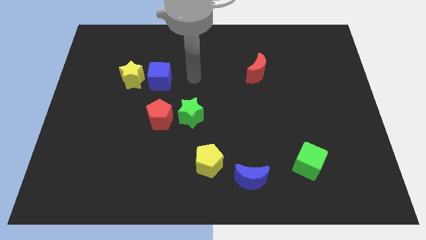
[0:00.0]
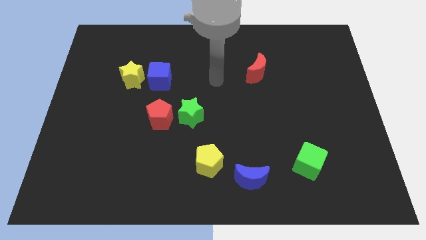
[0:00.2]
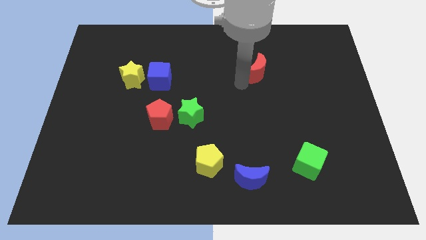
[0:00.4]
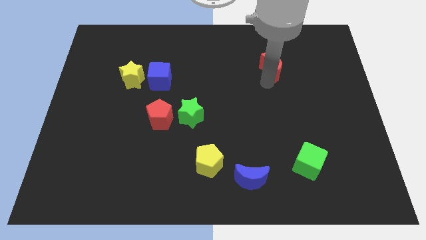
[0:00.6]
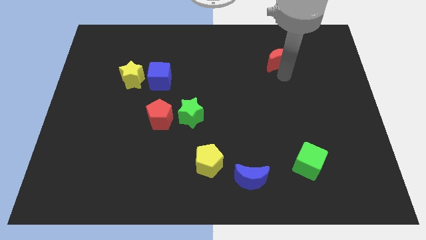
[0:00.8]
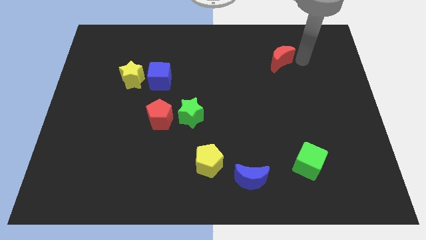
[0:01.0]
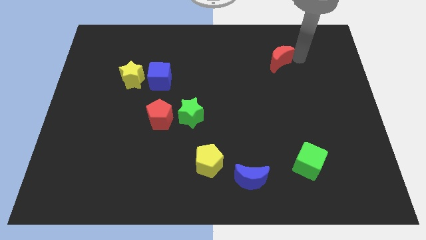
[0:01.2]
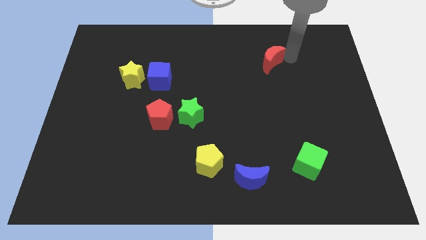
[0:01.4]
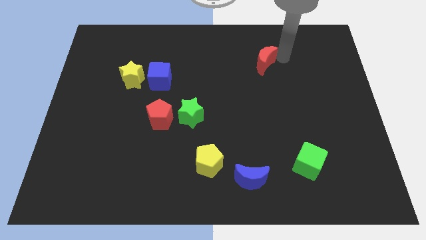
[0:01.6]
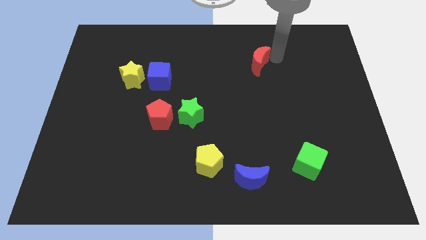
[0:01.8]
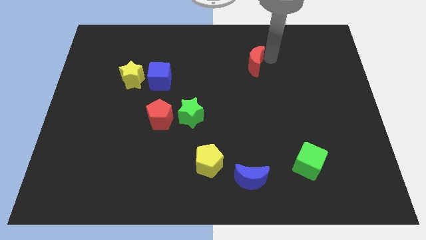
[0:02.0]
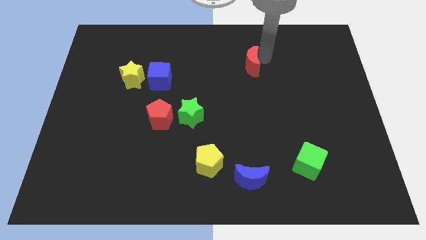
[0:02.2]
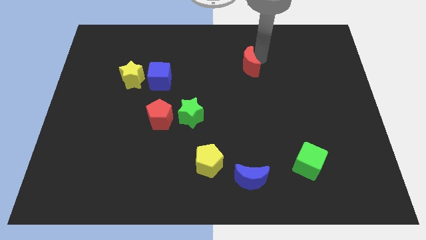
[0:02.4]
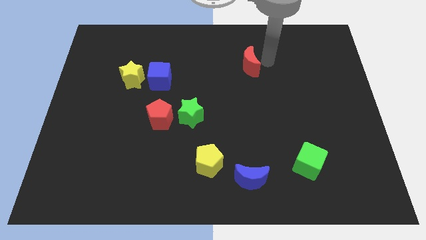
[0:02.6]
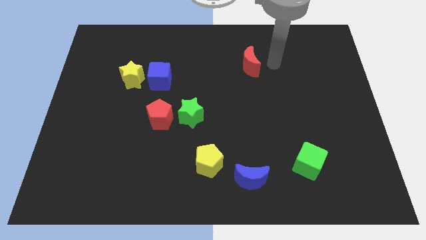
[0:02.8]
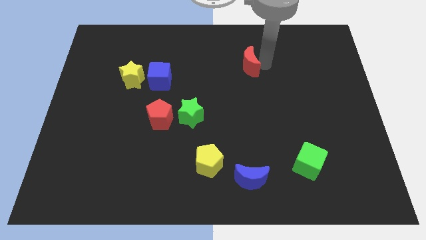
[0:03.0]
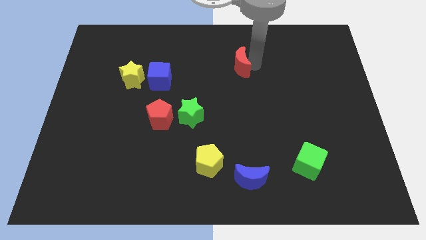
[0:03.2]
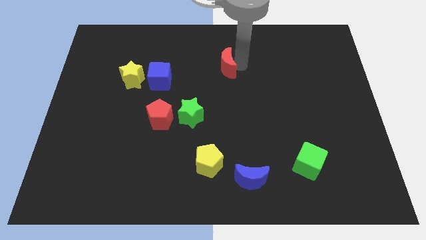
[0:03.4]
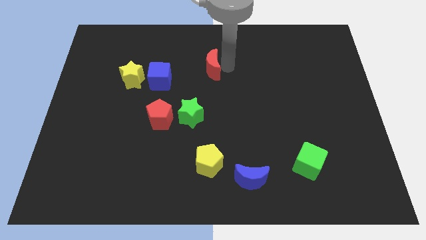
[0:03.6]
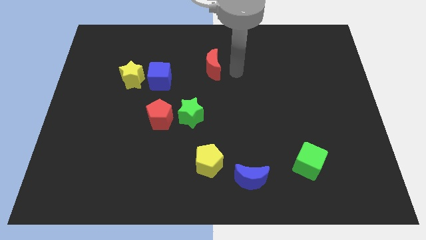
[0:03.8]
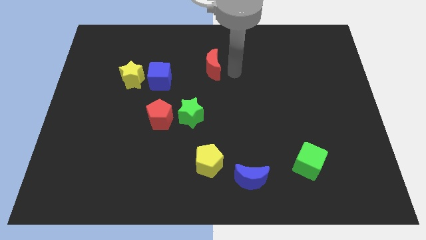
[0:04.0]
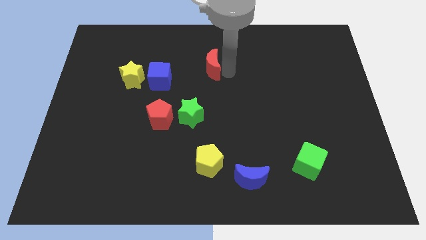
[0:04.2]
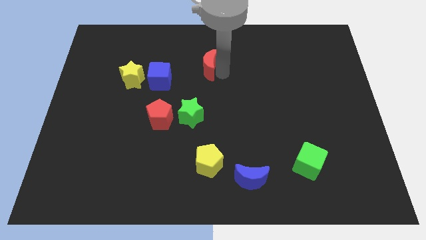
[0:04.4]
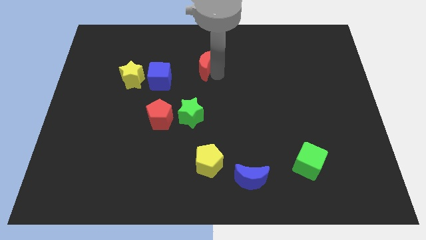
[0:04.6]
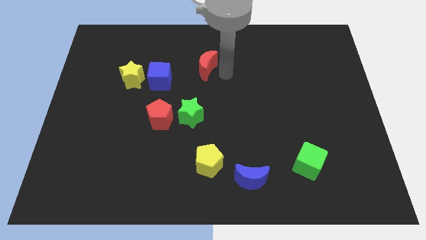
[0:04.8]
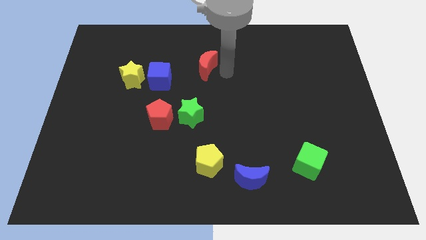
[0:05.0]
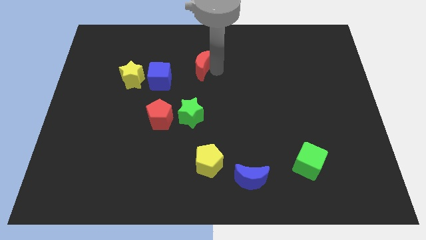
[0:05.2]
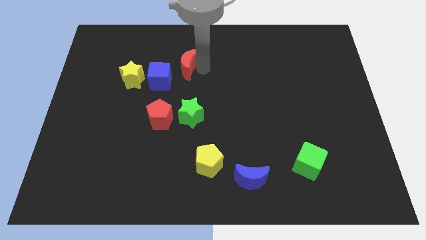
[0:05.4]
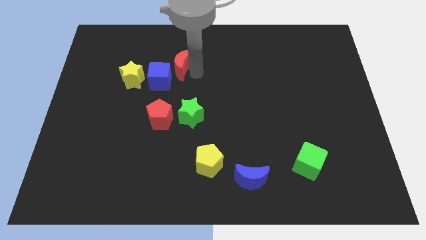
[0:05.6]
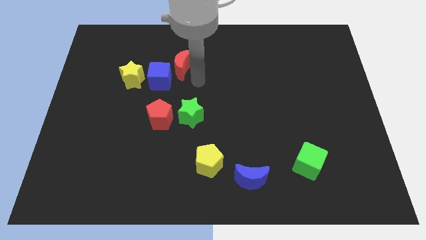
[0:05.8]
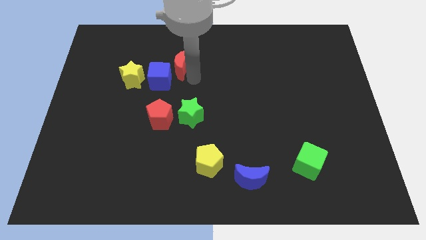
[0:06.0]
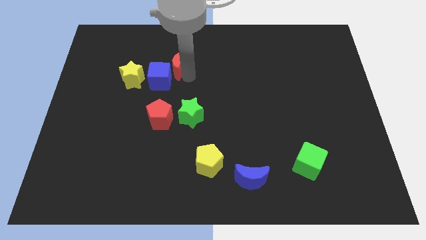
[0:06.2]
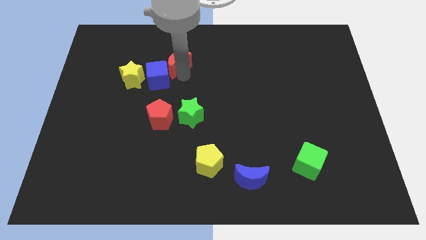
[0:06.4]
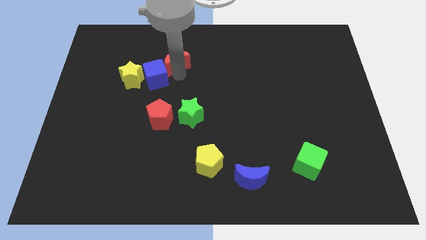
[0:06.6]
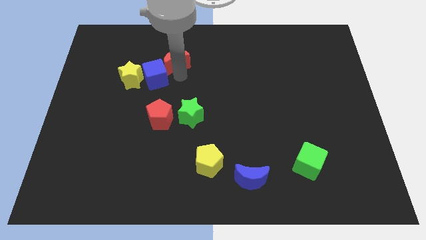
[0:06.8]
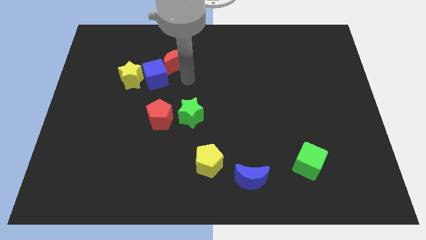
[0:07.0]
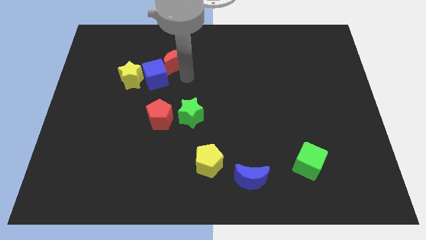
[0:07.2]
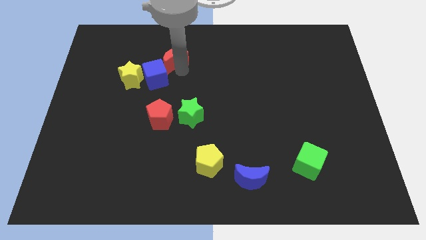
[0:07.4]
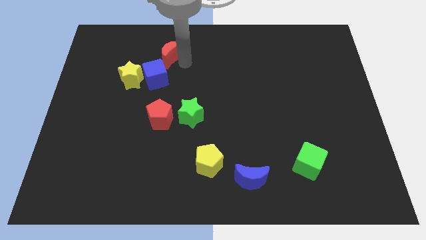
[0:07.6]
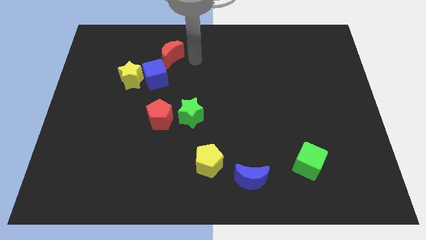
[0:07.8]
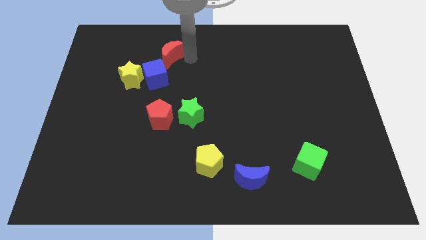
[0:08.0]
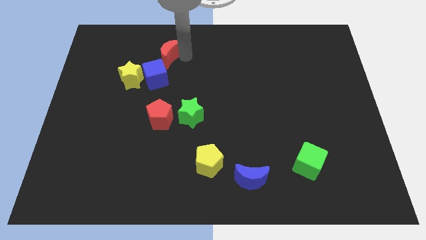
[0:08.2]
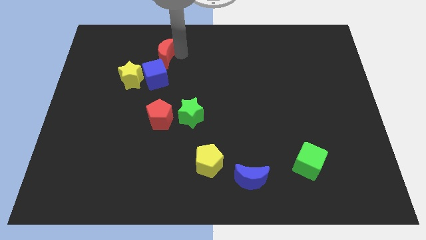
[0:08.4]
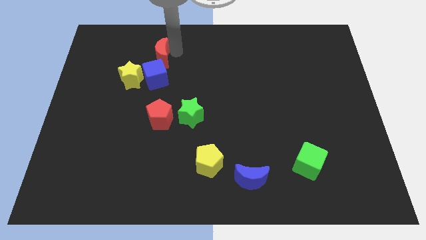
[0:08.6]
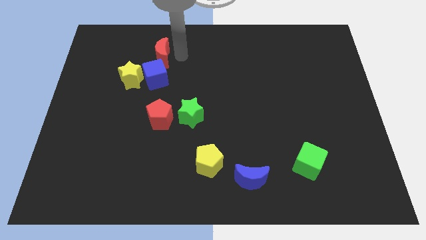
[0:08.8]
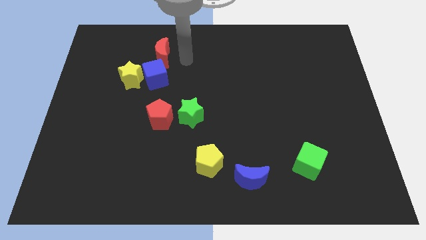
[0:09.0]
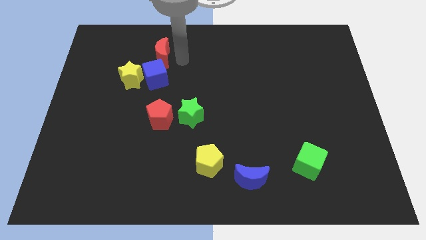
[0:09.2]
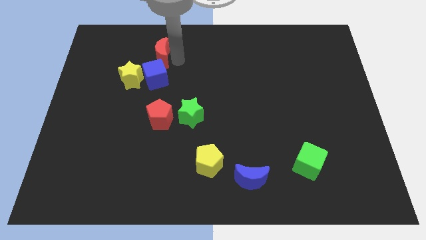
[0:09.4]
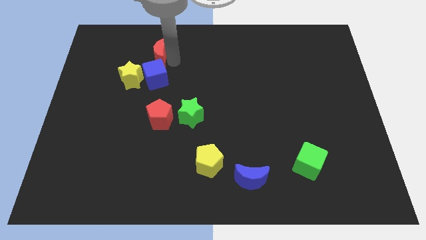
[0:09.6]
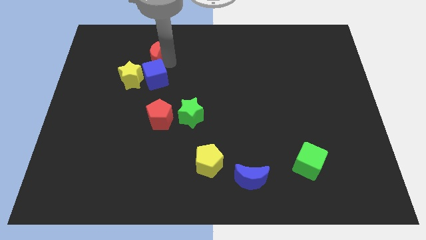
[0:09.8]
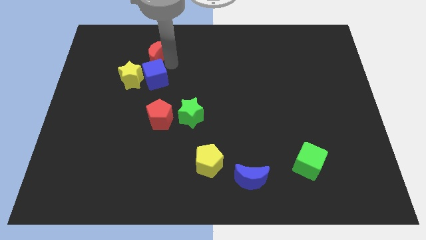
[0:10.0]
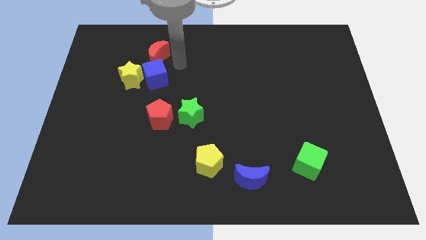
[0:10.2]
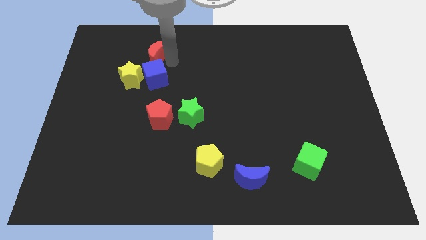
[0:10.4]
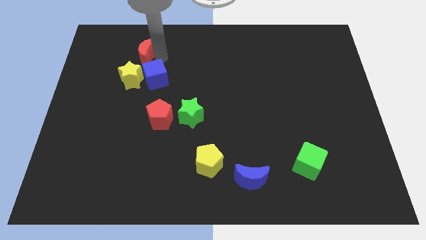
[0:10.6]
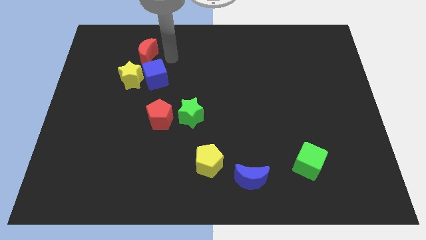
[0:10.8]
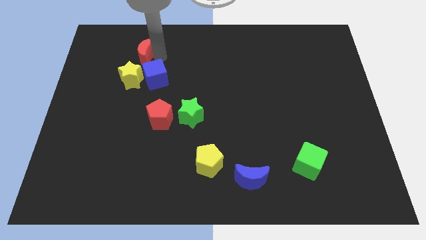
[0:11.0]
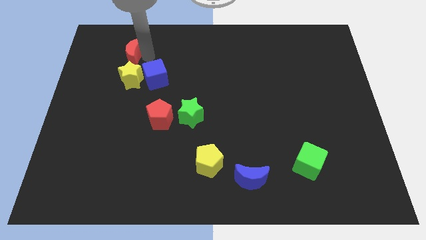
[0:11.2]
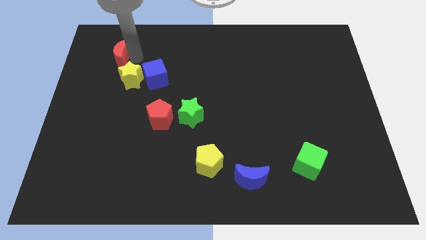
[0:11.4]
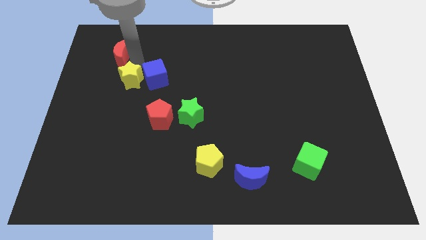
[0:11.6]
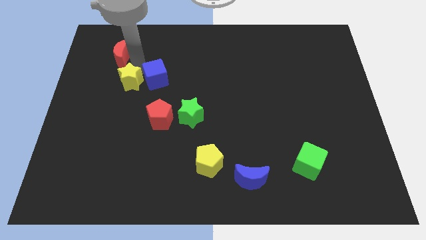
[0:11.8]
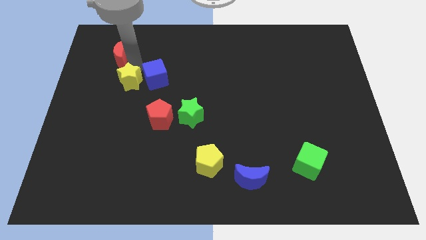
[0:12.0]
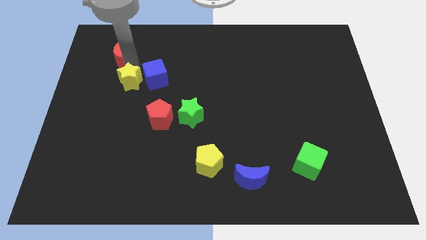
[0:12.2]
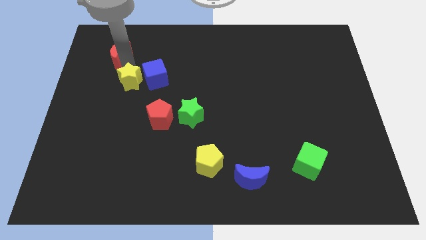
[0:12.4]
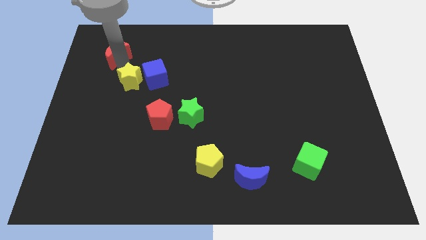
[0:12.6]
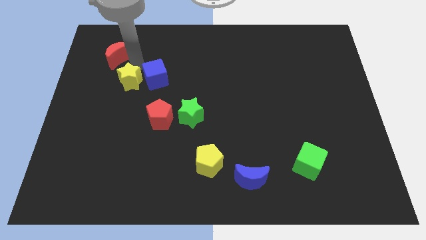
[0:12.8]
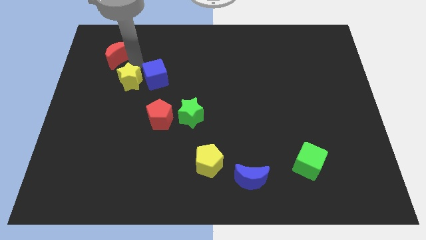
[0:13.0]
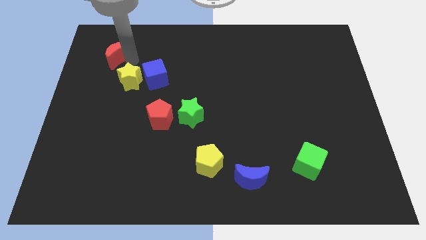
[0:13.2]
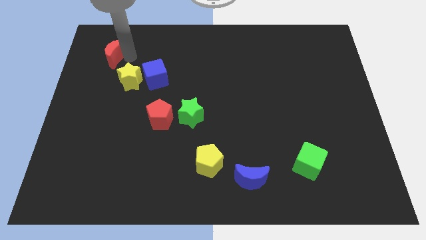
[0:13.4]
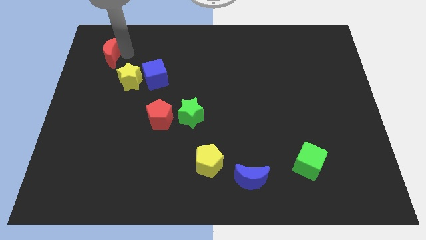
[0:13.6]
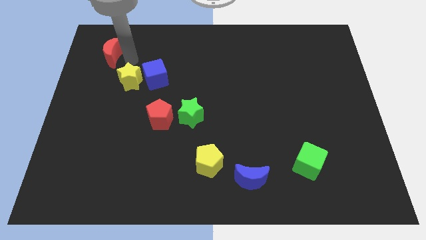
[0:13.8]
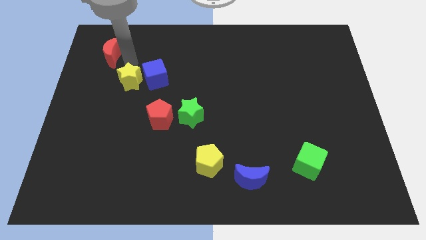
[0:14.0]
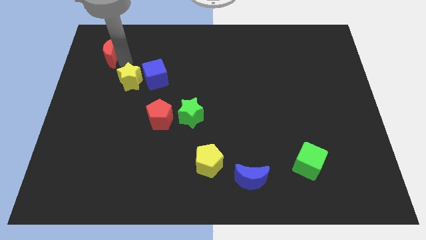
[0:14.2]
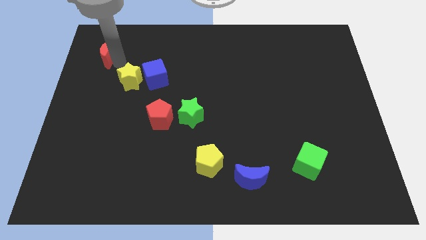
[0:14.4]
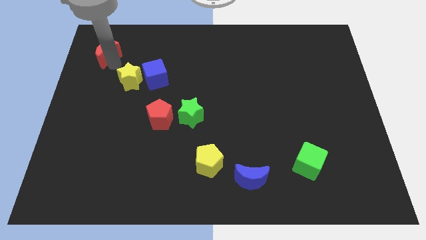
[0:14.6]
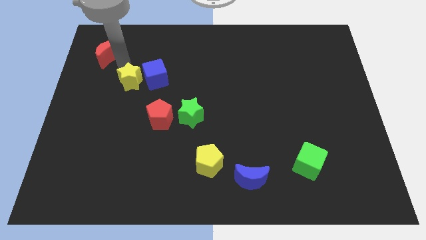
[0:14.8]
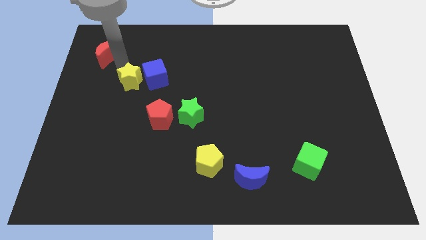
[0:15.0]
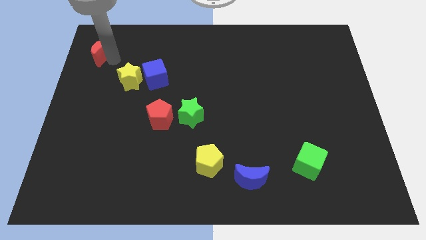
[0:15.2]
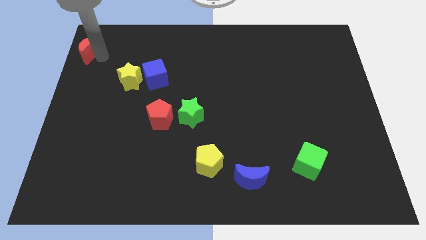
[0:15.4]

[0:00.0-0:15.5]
move the red moon to the top left
